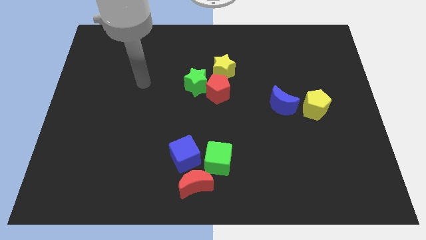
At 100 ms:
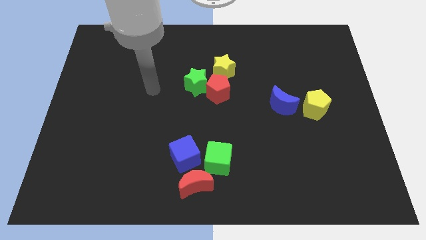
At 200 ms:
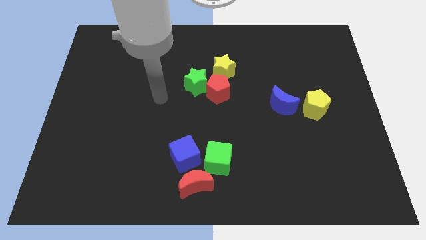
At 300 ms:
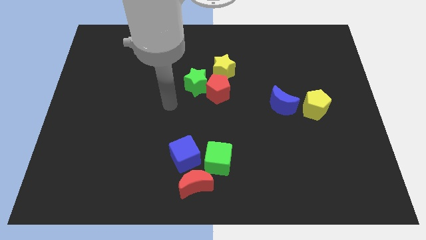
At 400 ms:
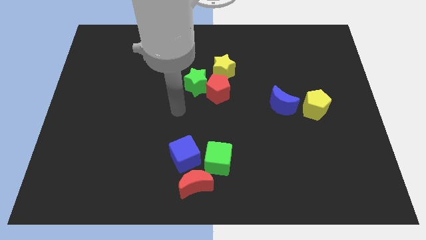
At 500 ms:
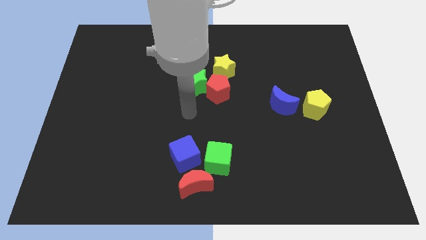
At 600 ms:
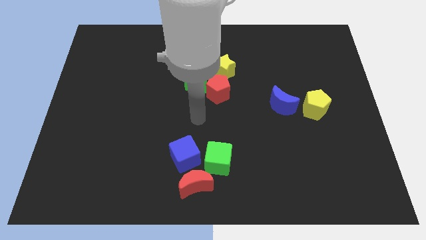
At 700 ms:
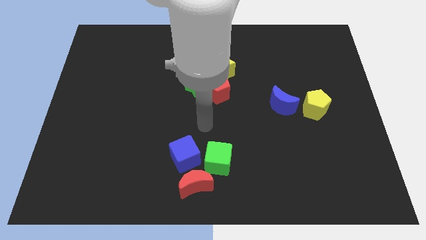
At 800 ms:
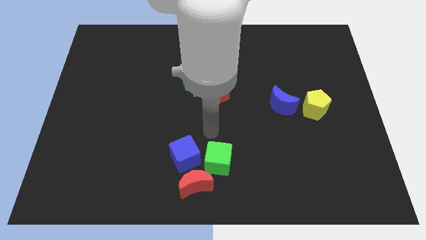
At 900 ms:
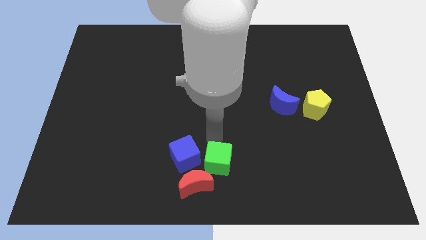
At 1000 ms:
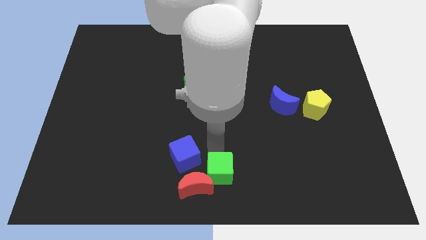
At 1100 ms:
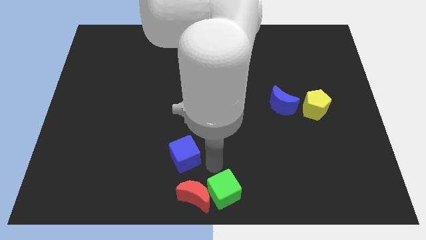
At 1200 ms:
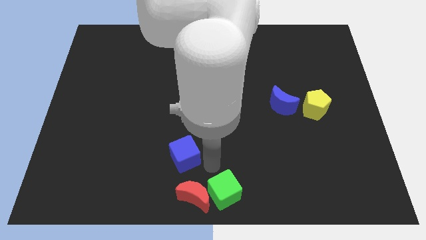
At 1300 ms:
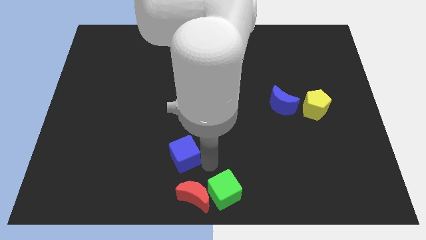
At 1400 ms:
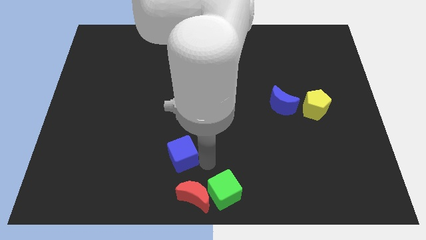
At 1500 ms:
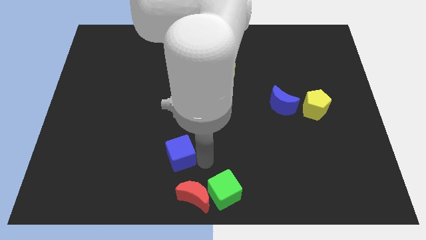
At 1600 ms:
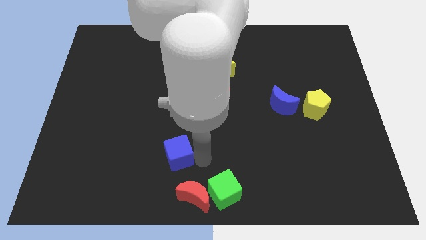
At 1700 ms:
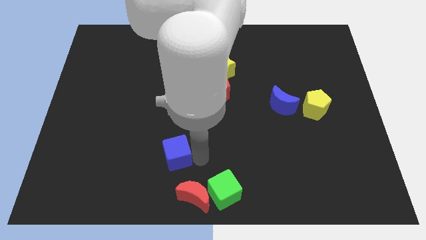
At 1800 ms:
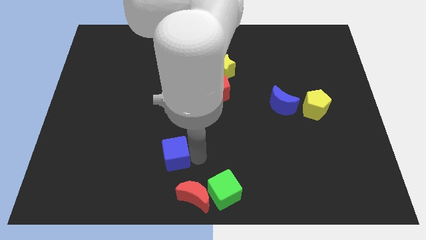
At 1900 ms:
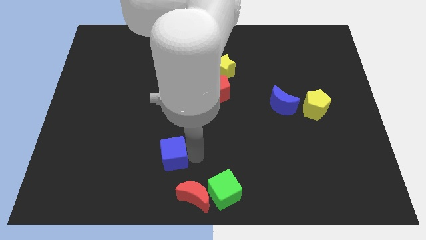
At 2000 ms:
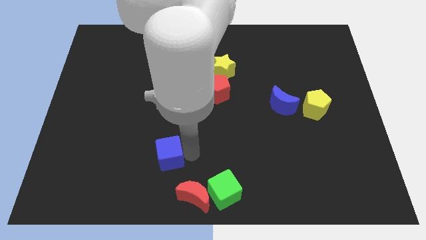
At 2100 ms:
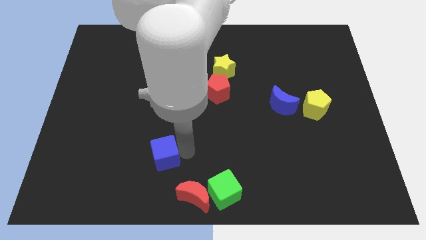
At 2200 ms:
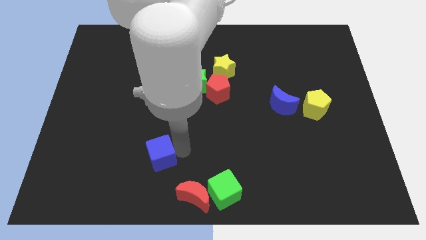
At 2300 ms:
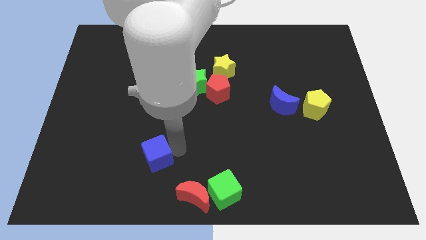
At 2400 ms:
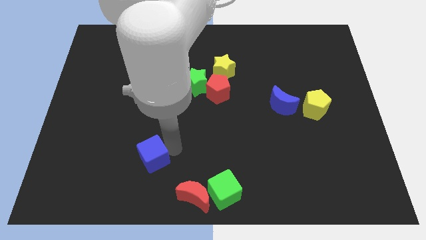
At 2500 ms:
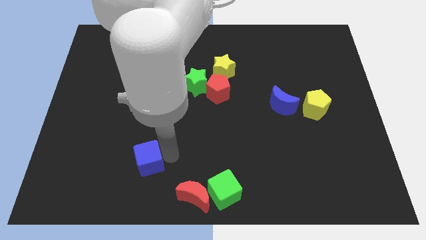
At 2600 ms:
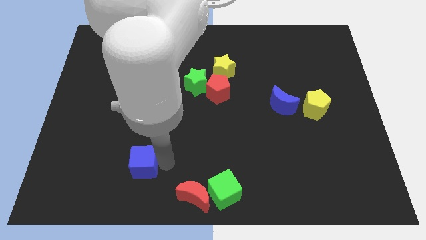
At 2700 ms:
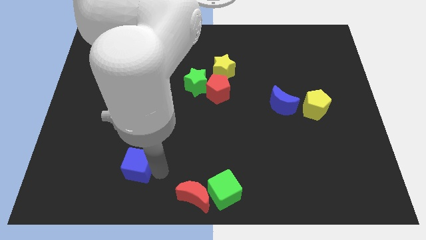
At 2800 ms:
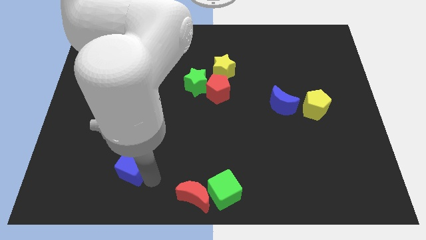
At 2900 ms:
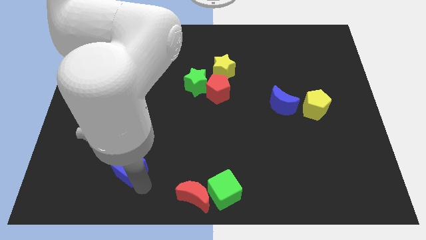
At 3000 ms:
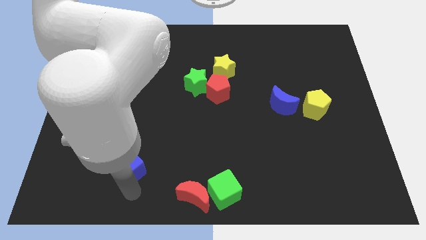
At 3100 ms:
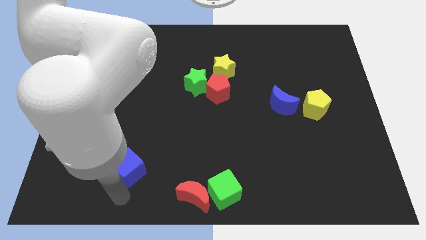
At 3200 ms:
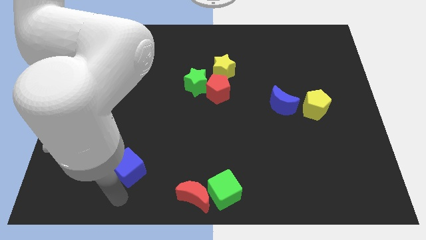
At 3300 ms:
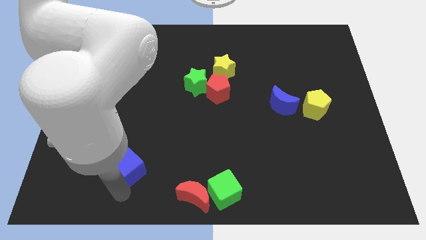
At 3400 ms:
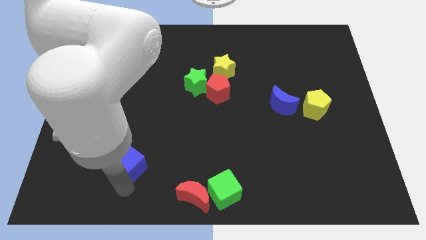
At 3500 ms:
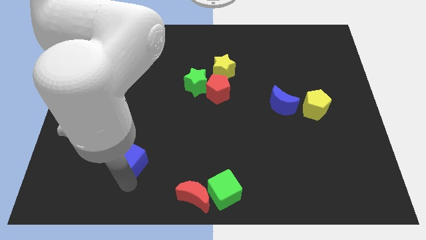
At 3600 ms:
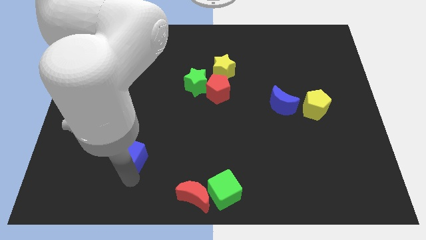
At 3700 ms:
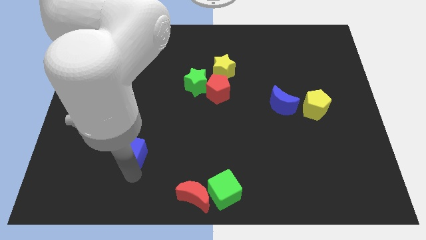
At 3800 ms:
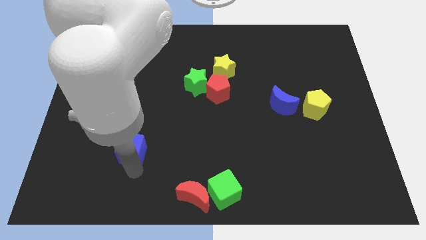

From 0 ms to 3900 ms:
push the blue cube upwards and to the left diagonally somewhat

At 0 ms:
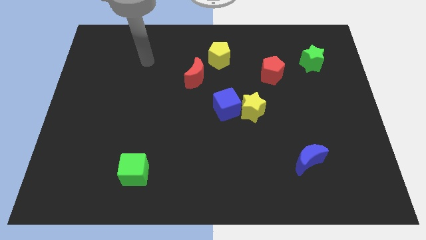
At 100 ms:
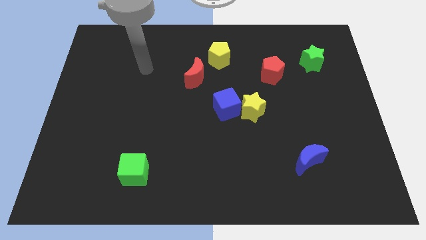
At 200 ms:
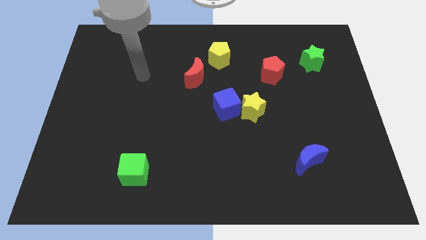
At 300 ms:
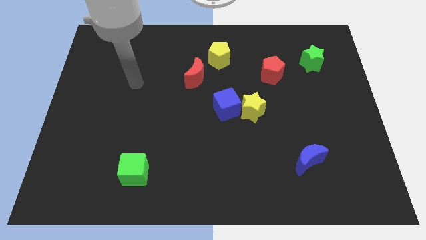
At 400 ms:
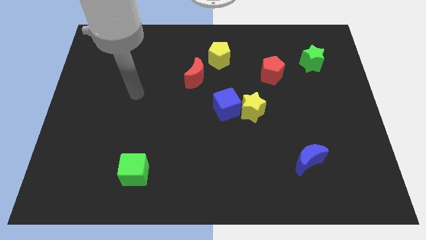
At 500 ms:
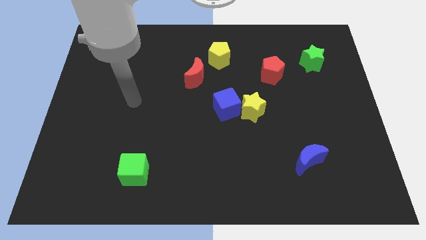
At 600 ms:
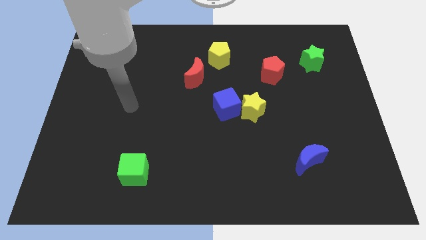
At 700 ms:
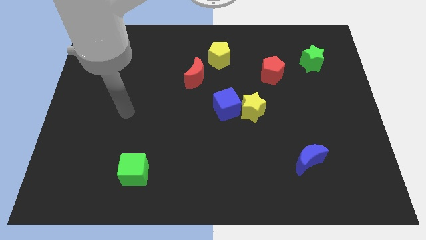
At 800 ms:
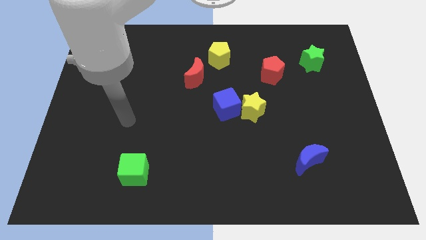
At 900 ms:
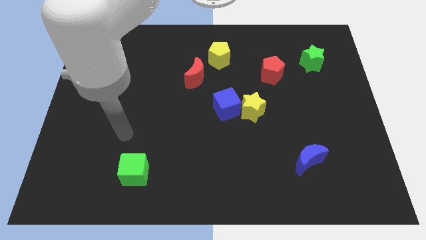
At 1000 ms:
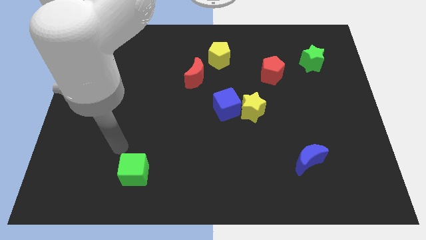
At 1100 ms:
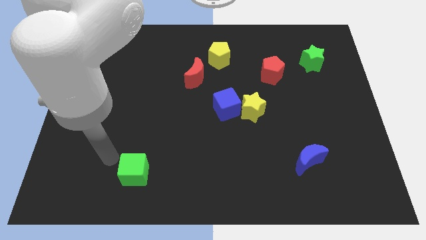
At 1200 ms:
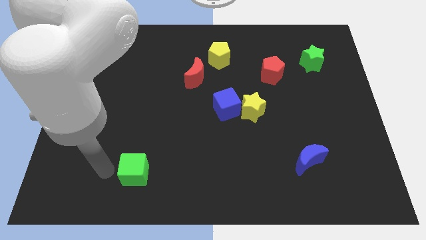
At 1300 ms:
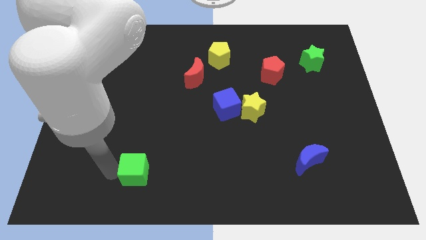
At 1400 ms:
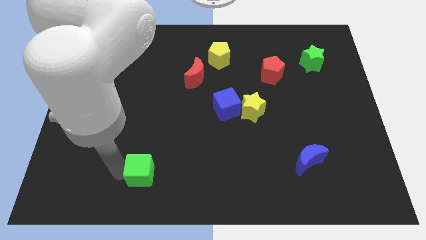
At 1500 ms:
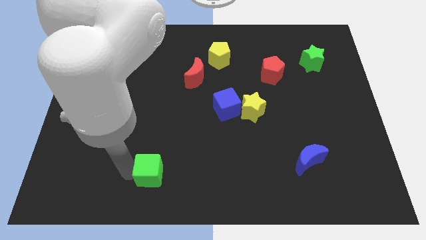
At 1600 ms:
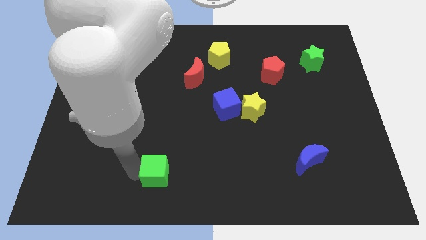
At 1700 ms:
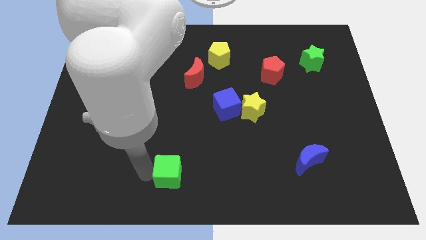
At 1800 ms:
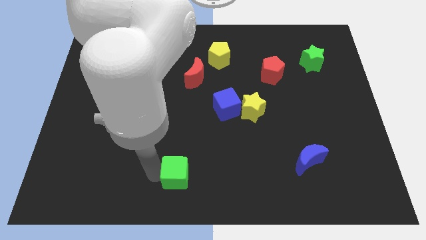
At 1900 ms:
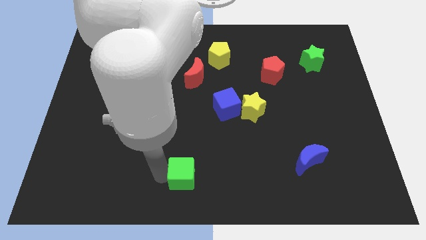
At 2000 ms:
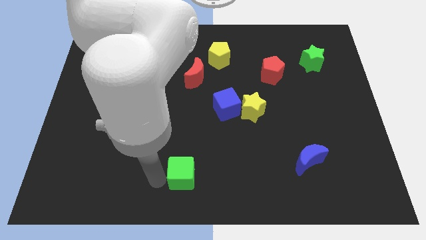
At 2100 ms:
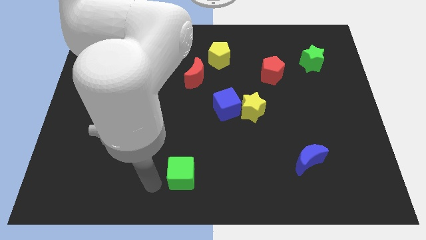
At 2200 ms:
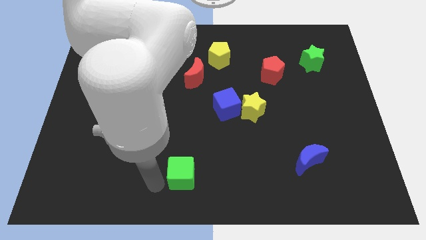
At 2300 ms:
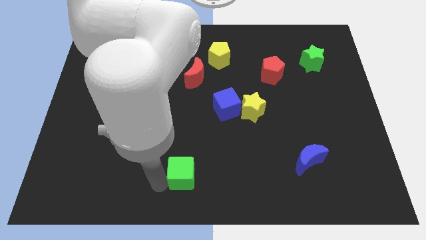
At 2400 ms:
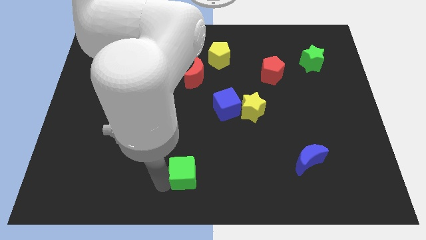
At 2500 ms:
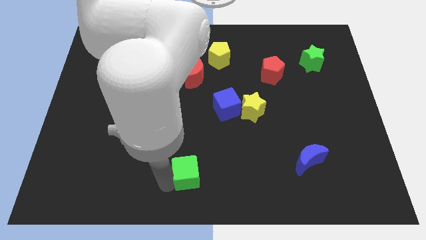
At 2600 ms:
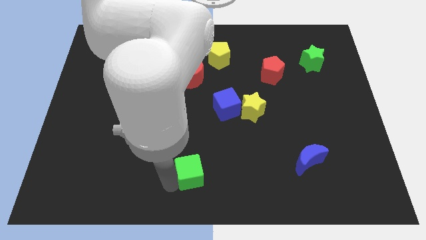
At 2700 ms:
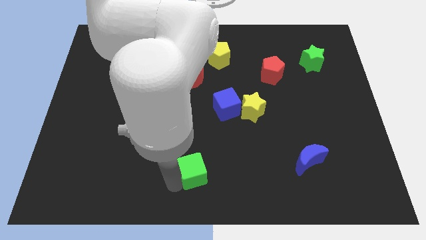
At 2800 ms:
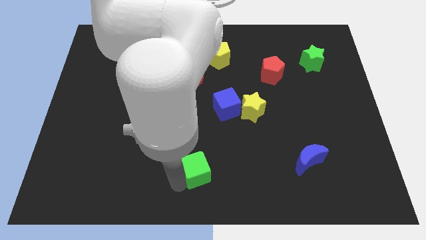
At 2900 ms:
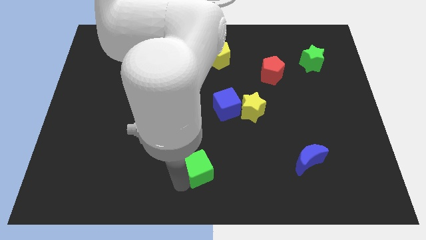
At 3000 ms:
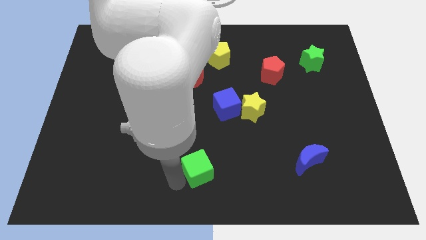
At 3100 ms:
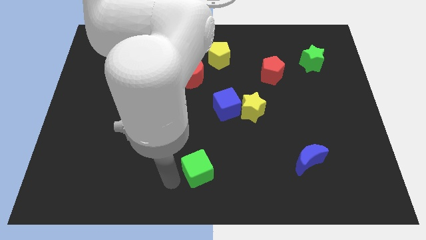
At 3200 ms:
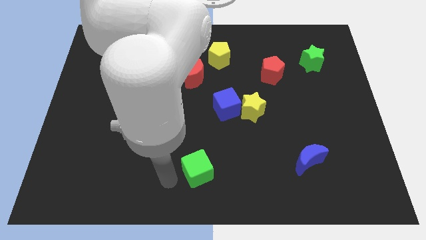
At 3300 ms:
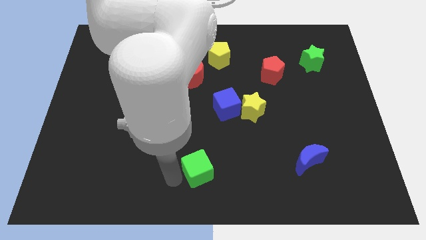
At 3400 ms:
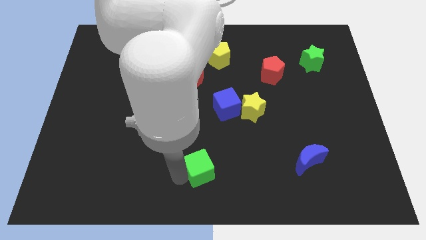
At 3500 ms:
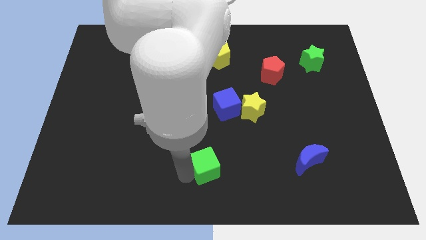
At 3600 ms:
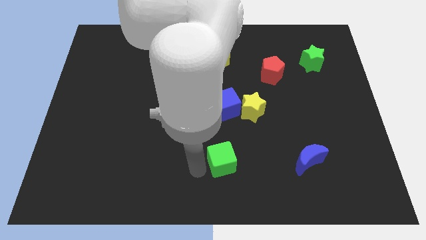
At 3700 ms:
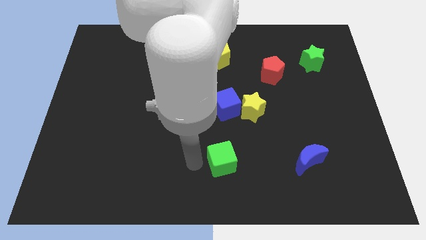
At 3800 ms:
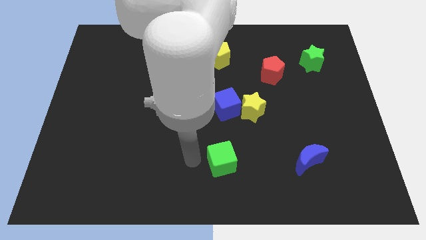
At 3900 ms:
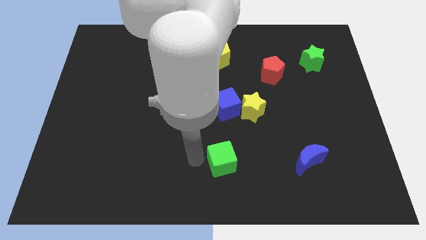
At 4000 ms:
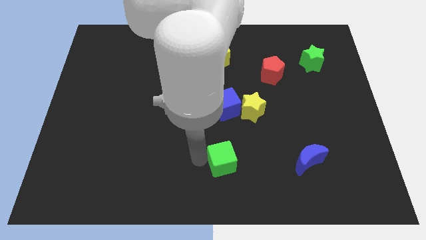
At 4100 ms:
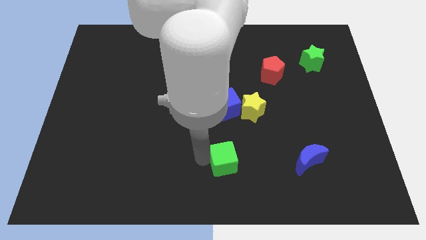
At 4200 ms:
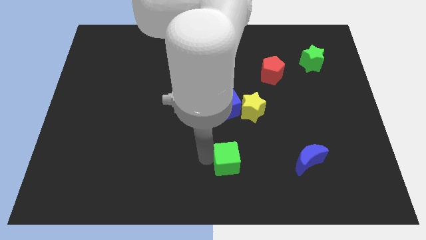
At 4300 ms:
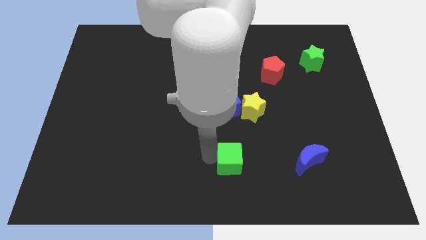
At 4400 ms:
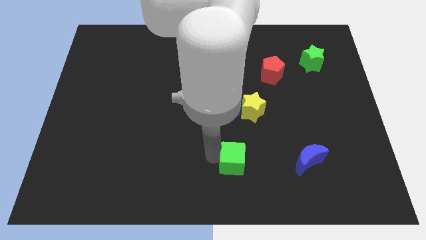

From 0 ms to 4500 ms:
slide the green cube right

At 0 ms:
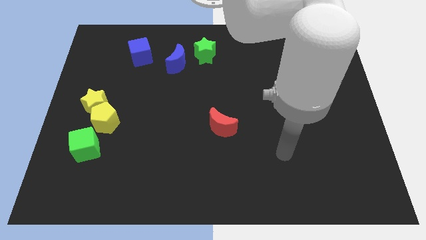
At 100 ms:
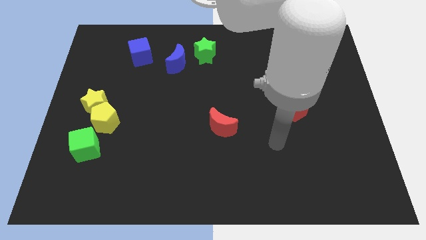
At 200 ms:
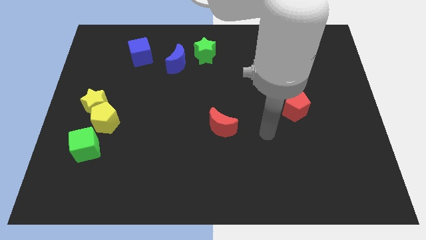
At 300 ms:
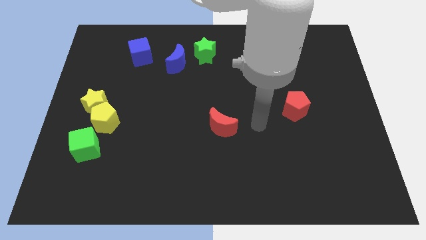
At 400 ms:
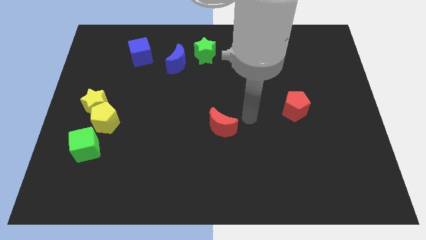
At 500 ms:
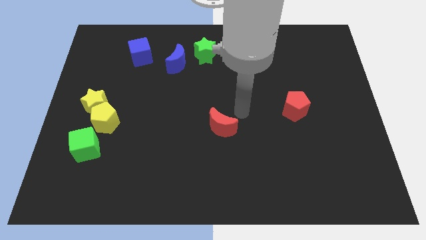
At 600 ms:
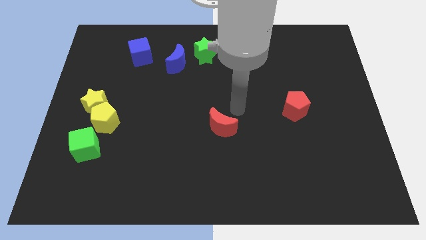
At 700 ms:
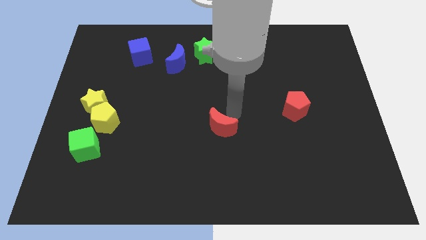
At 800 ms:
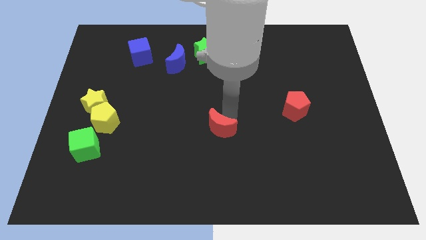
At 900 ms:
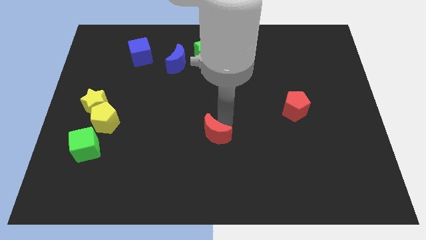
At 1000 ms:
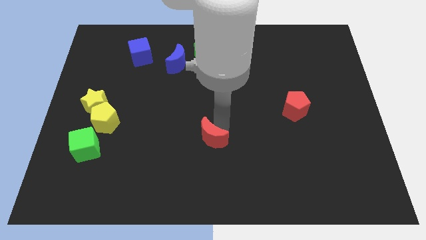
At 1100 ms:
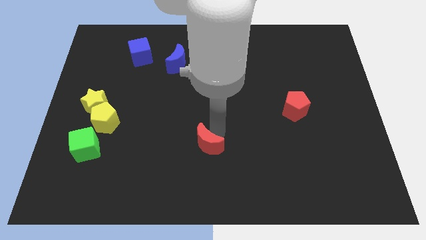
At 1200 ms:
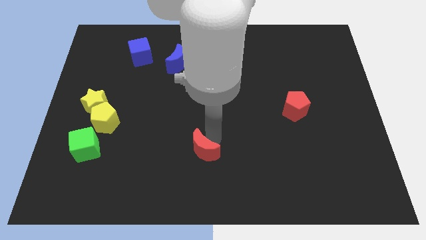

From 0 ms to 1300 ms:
slightly move the red moon down and to the left
